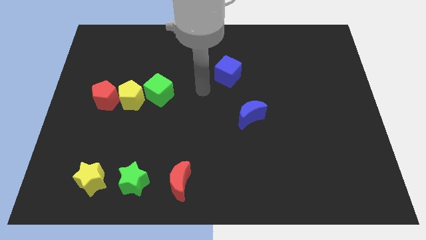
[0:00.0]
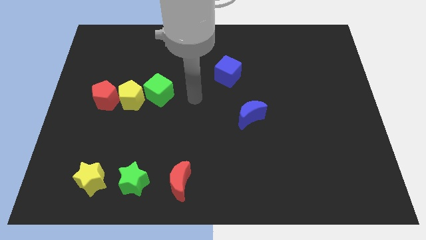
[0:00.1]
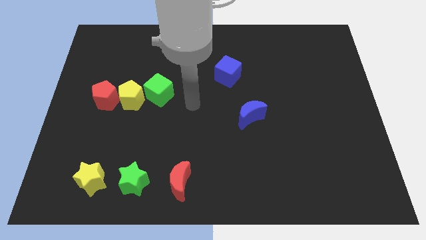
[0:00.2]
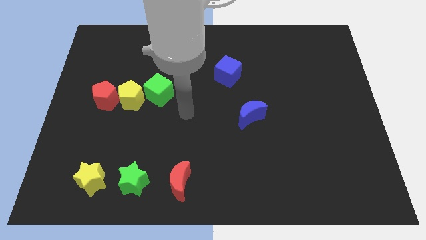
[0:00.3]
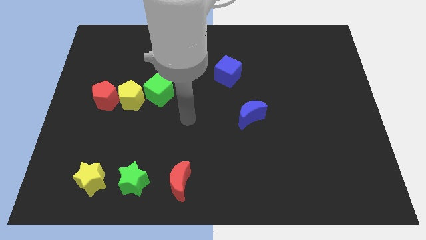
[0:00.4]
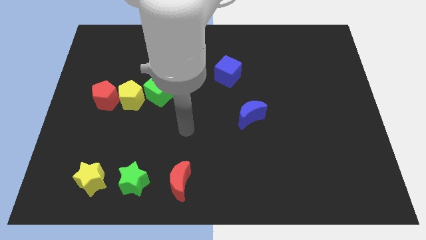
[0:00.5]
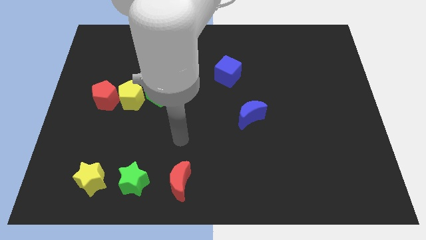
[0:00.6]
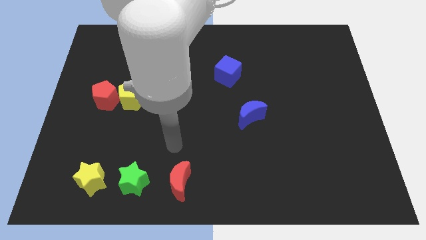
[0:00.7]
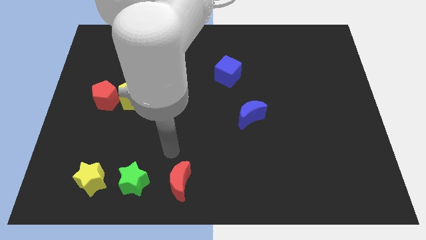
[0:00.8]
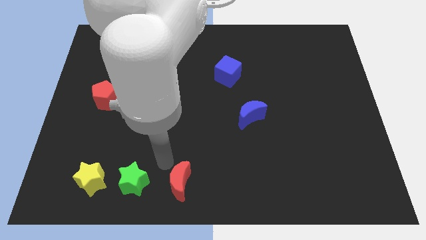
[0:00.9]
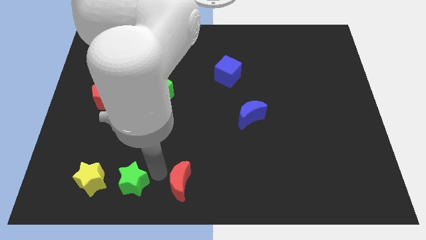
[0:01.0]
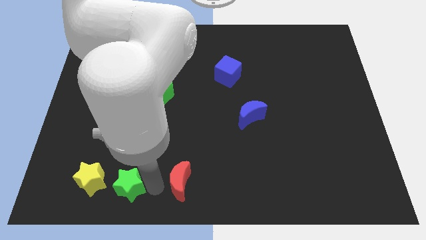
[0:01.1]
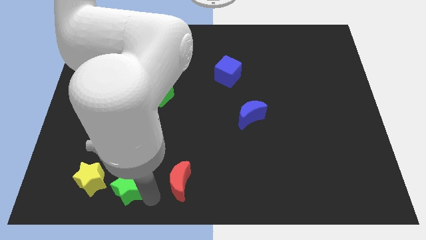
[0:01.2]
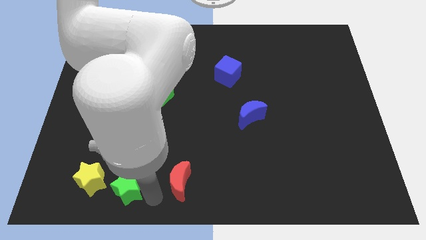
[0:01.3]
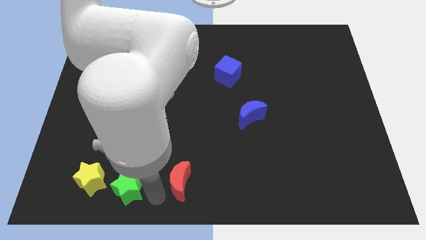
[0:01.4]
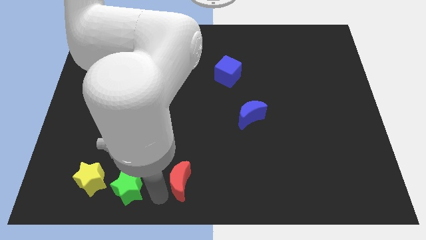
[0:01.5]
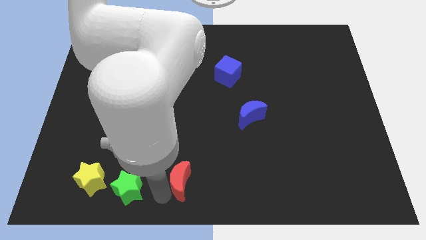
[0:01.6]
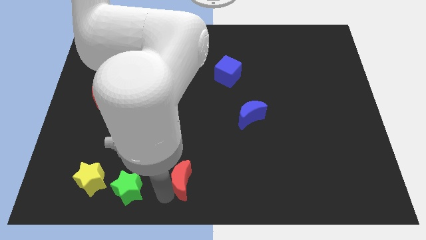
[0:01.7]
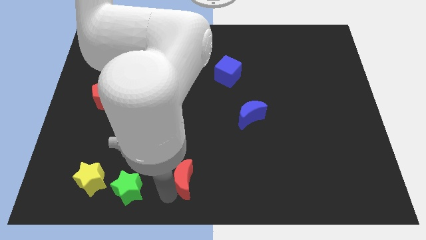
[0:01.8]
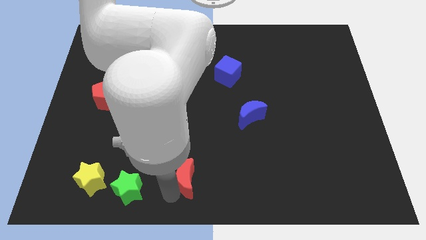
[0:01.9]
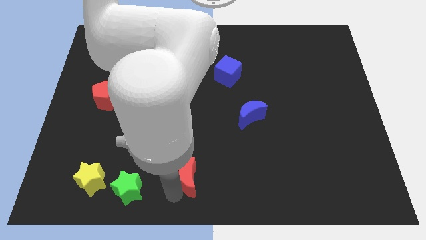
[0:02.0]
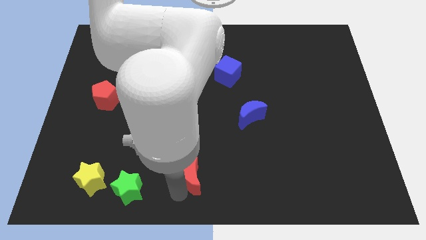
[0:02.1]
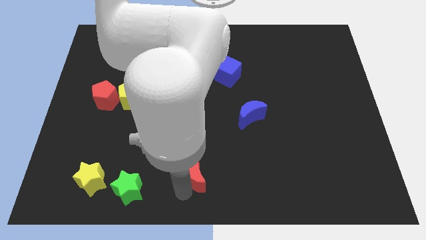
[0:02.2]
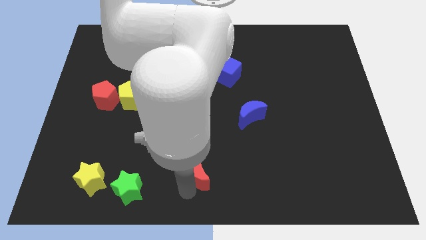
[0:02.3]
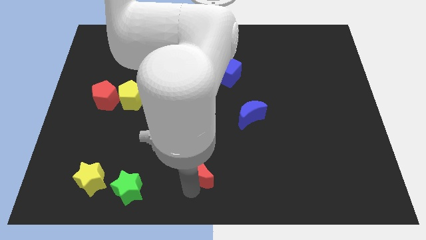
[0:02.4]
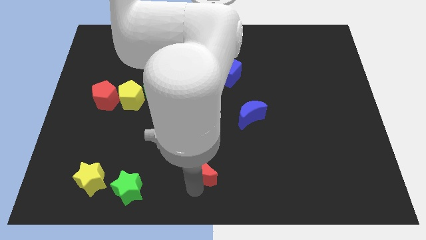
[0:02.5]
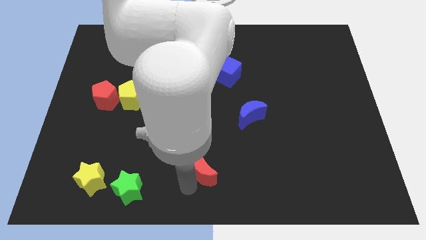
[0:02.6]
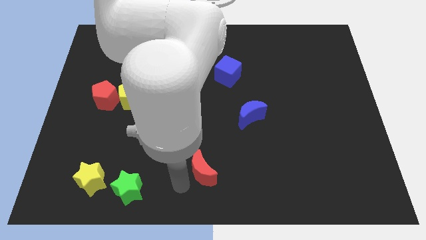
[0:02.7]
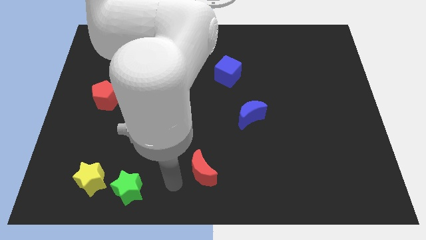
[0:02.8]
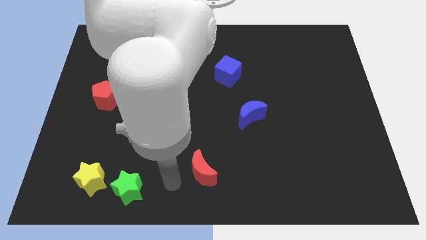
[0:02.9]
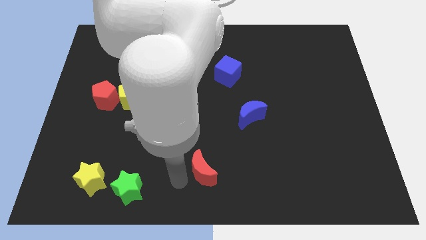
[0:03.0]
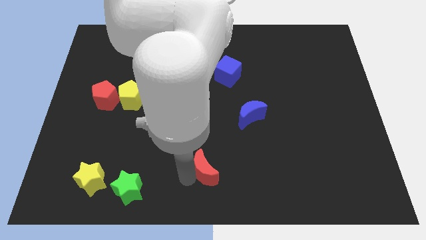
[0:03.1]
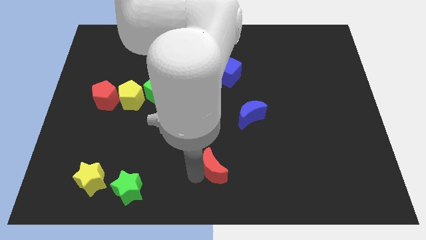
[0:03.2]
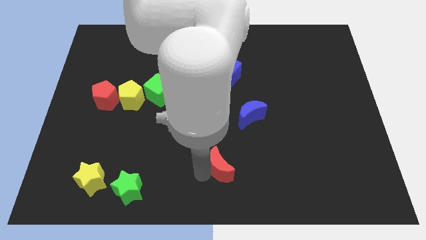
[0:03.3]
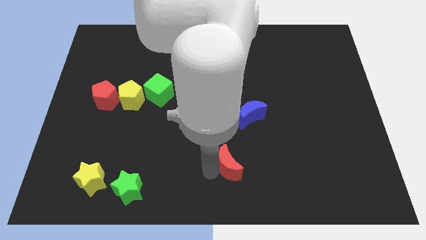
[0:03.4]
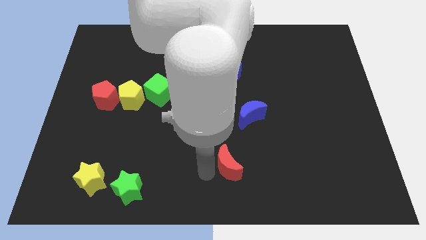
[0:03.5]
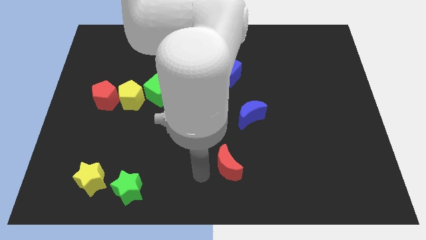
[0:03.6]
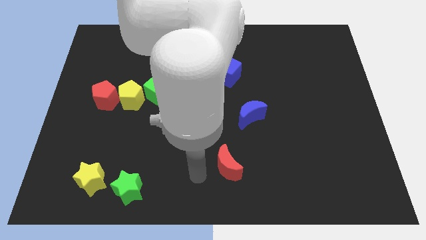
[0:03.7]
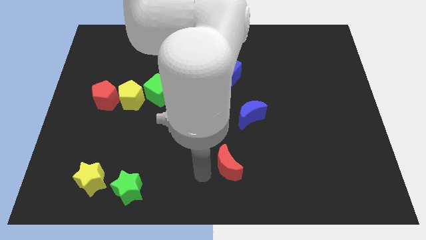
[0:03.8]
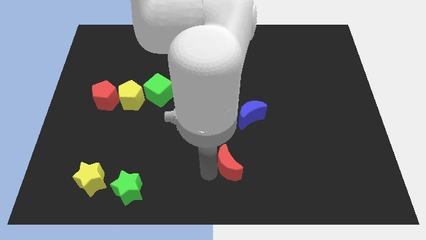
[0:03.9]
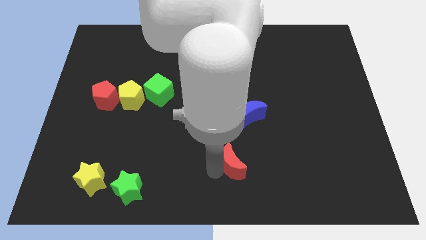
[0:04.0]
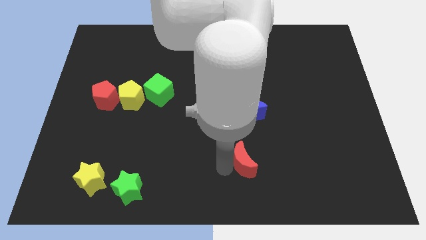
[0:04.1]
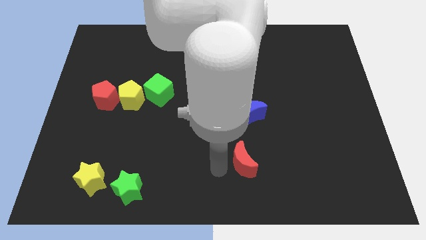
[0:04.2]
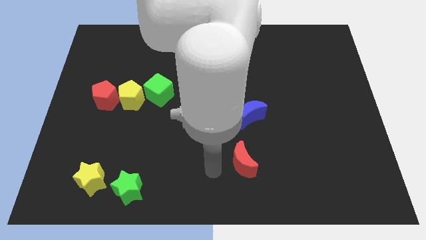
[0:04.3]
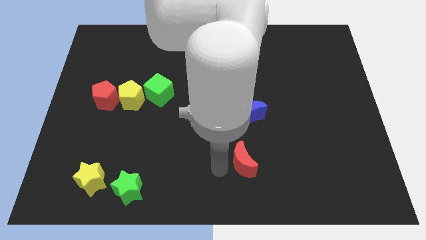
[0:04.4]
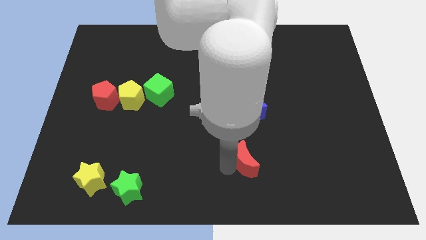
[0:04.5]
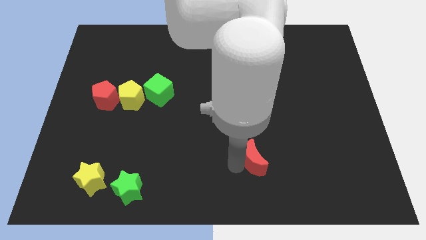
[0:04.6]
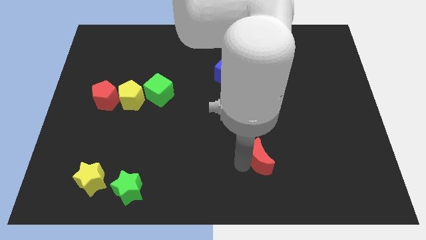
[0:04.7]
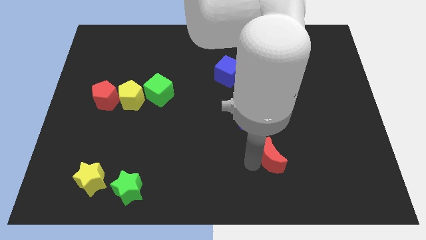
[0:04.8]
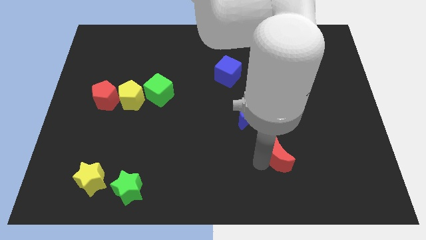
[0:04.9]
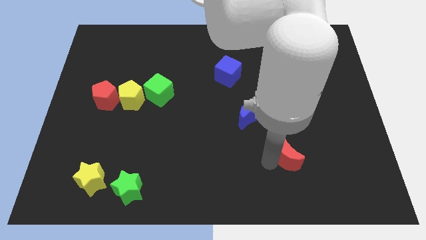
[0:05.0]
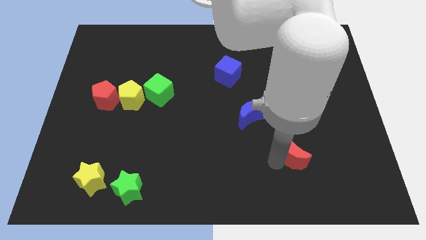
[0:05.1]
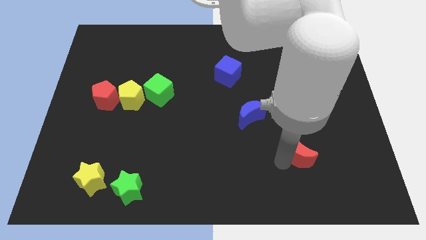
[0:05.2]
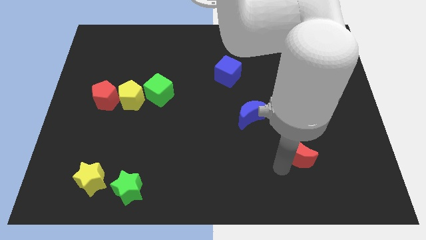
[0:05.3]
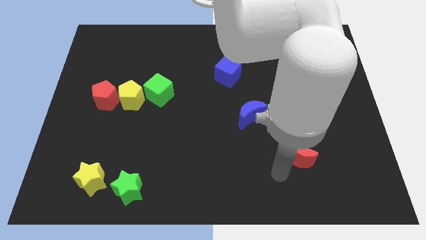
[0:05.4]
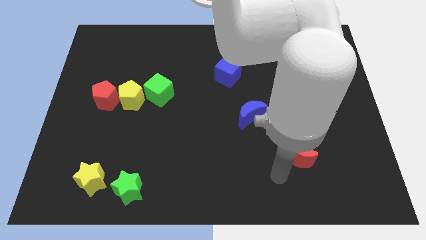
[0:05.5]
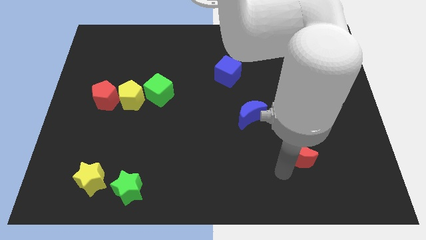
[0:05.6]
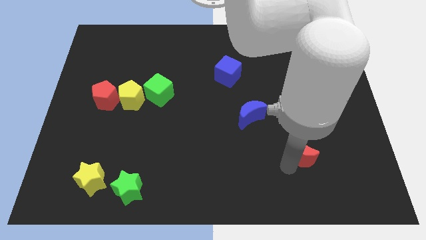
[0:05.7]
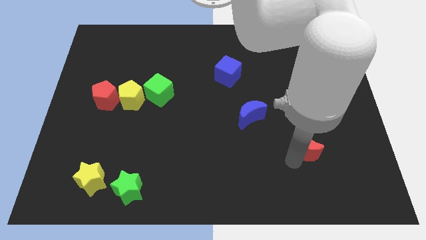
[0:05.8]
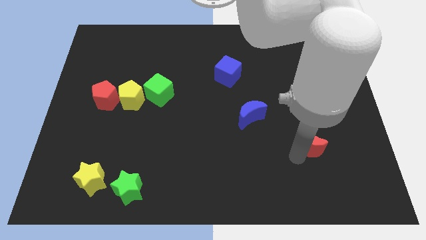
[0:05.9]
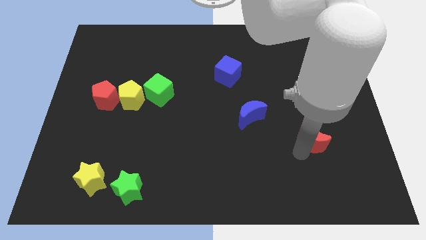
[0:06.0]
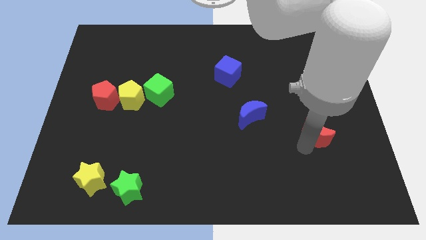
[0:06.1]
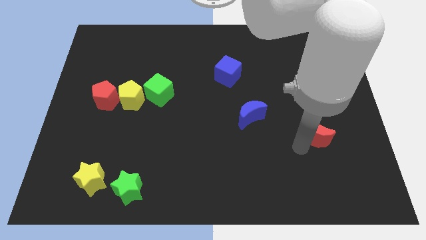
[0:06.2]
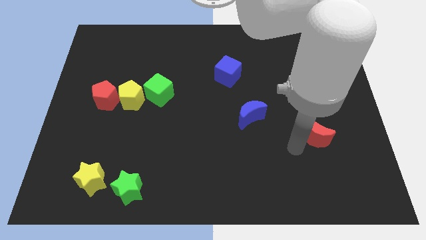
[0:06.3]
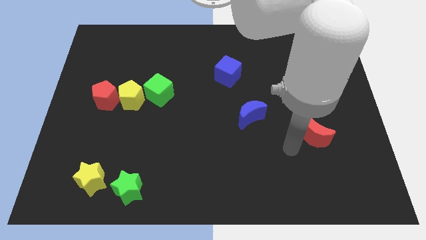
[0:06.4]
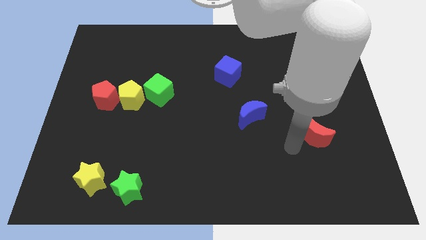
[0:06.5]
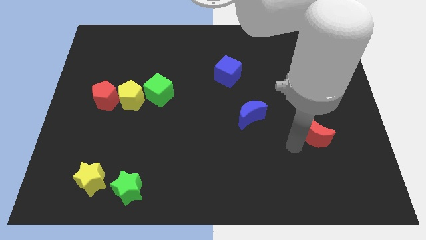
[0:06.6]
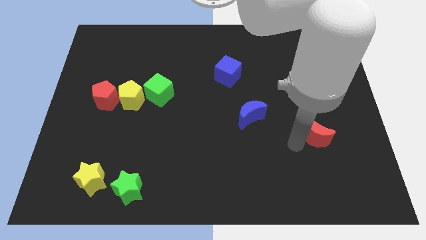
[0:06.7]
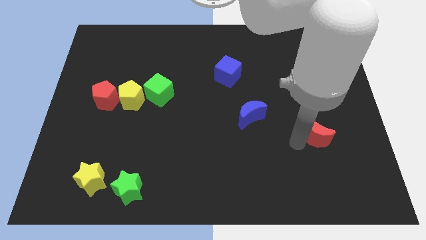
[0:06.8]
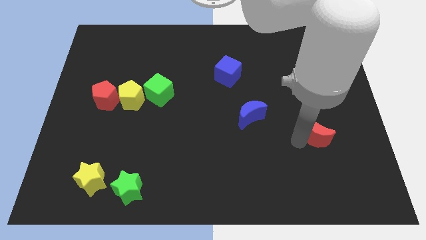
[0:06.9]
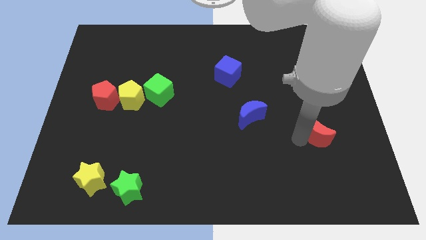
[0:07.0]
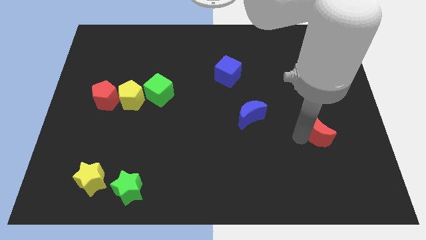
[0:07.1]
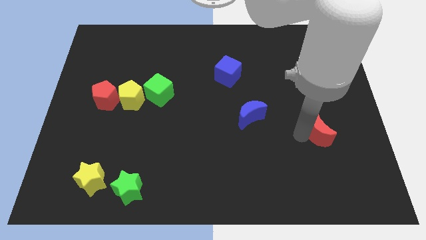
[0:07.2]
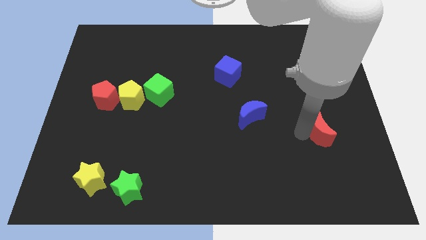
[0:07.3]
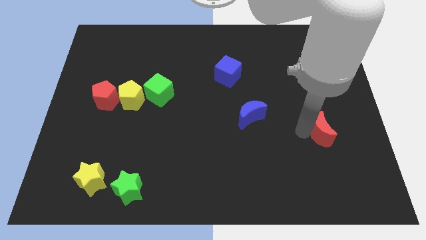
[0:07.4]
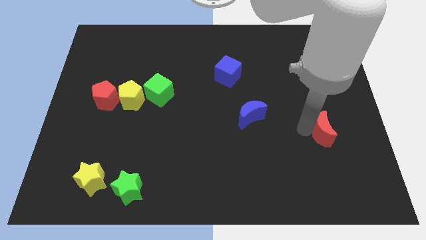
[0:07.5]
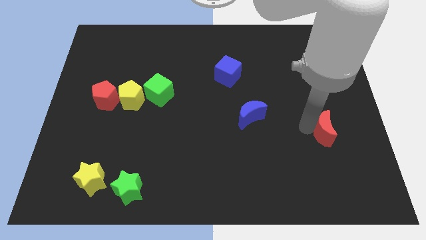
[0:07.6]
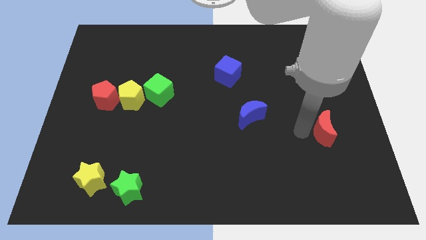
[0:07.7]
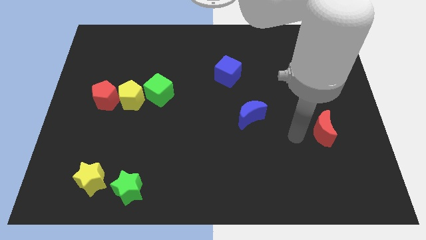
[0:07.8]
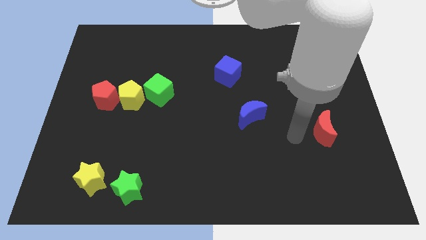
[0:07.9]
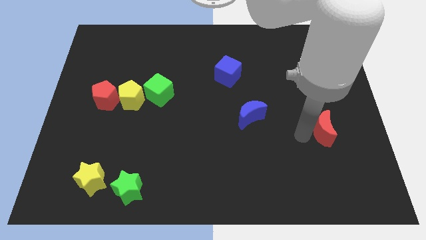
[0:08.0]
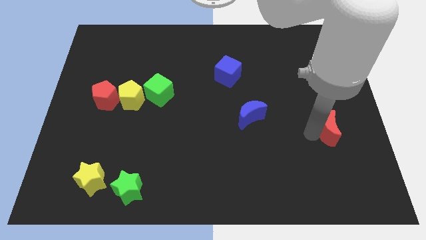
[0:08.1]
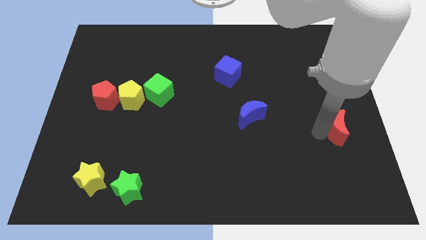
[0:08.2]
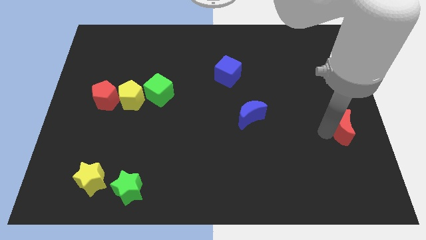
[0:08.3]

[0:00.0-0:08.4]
slide the red moon to the center right
